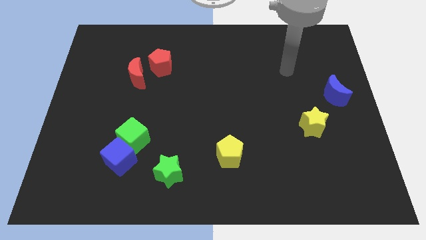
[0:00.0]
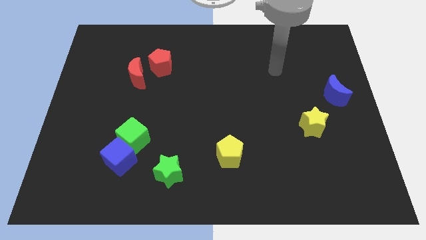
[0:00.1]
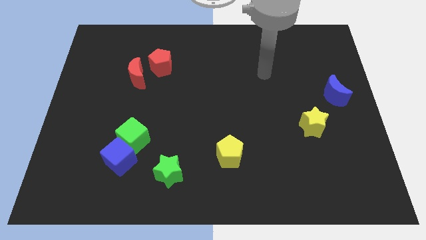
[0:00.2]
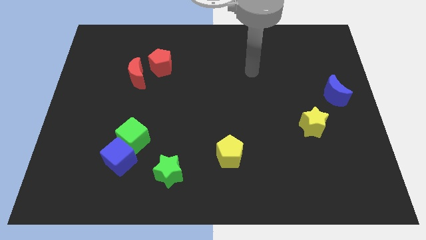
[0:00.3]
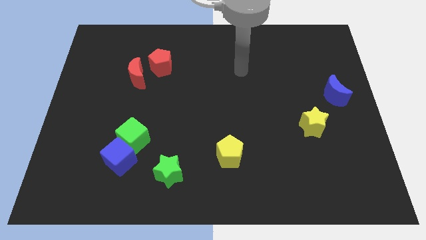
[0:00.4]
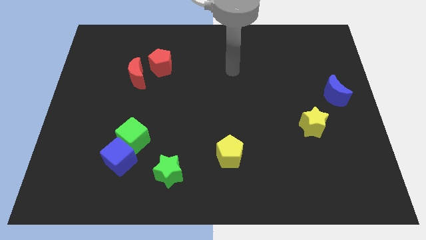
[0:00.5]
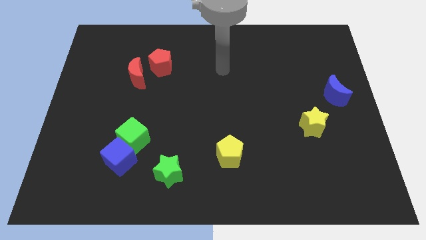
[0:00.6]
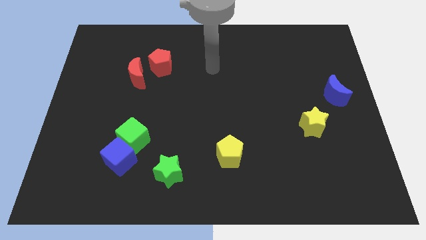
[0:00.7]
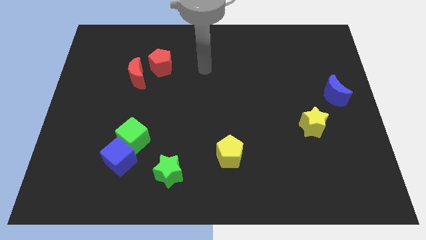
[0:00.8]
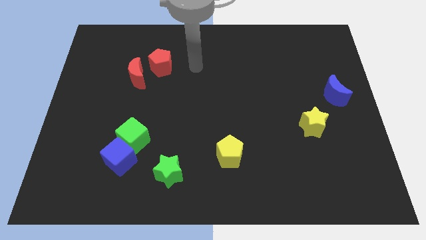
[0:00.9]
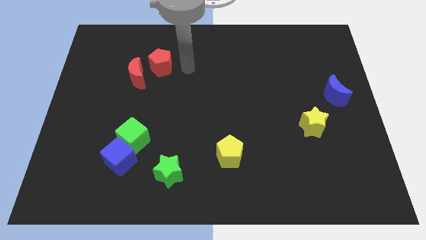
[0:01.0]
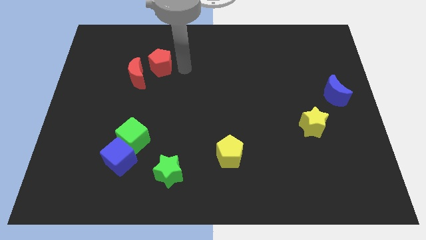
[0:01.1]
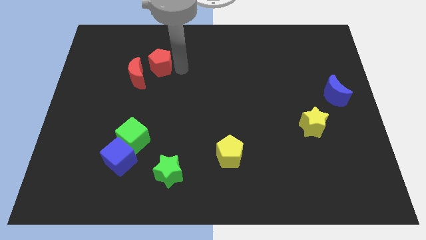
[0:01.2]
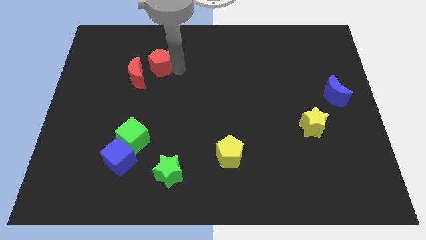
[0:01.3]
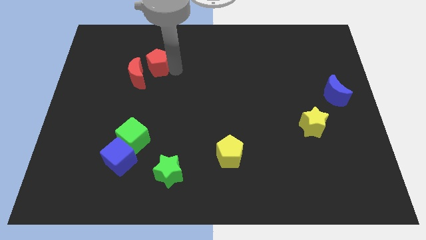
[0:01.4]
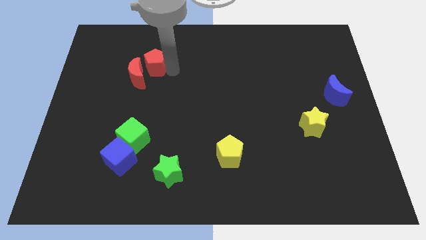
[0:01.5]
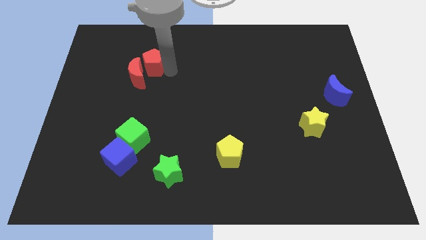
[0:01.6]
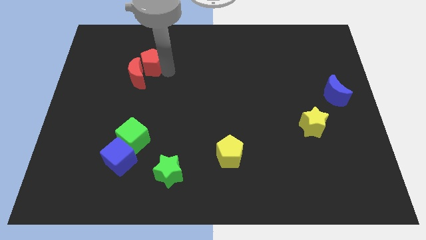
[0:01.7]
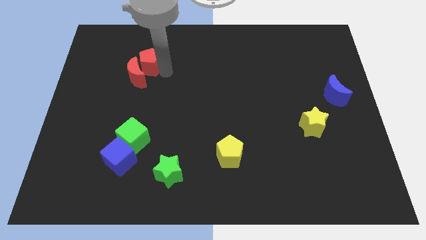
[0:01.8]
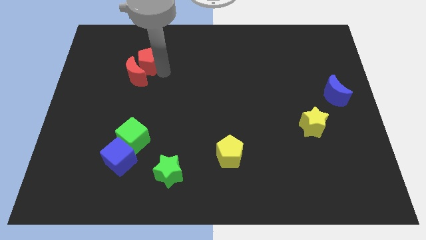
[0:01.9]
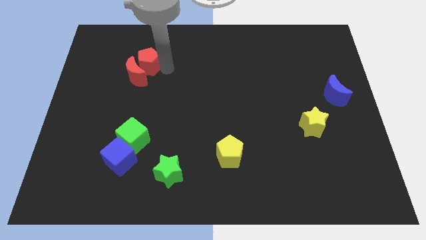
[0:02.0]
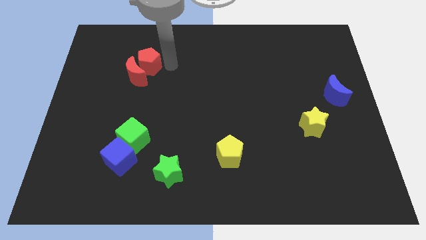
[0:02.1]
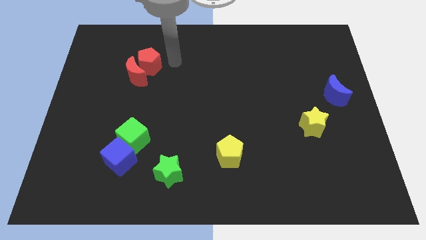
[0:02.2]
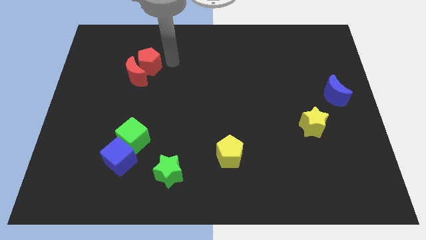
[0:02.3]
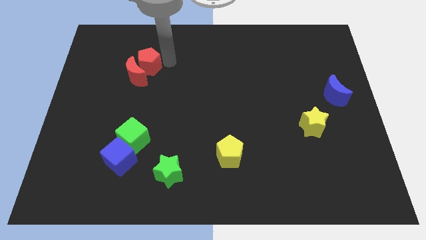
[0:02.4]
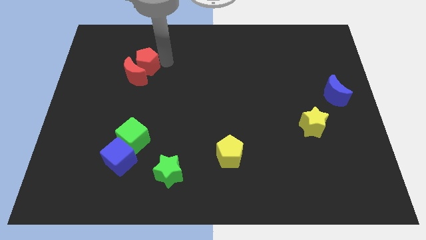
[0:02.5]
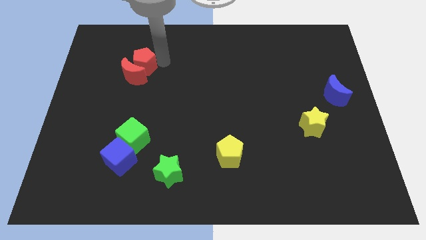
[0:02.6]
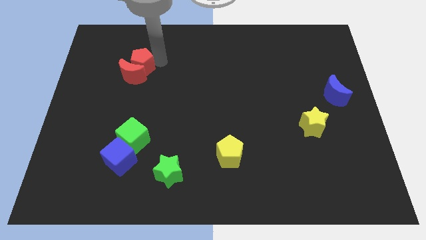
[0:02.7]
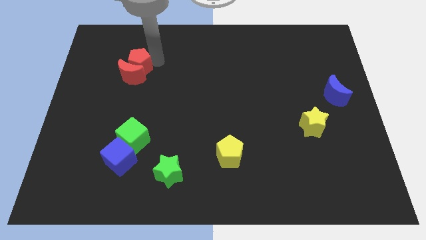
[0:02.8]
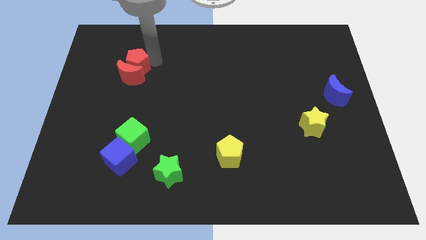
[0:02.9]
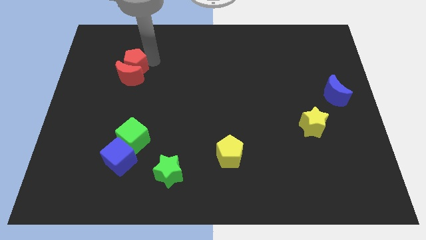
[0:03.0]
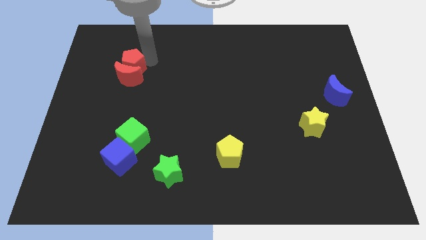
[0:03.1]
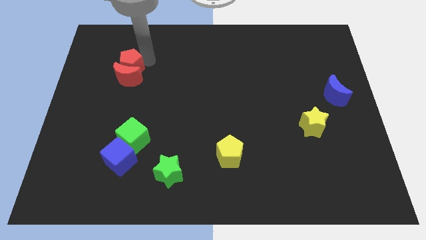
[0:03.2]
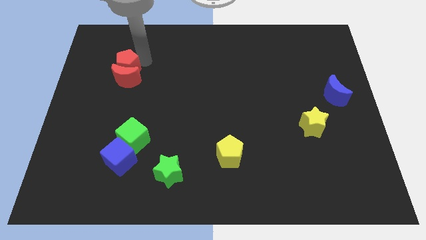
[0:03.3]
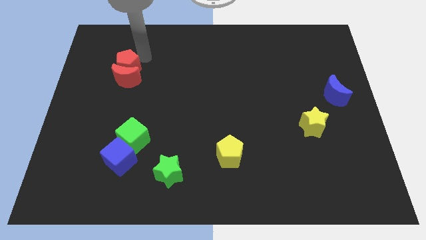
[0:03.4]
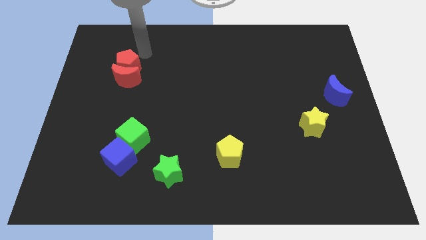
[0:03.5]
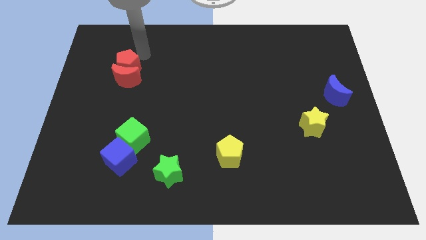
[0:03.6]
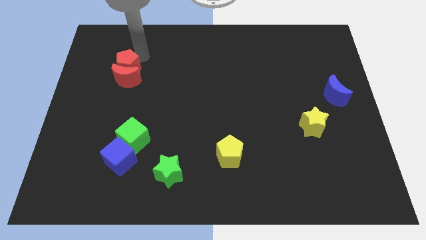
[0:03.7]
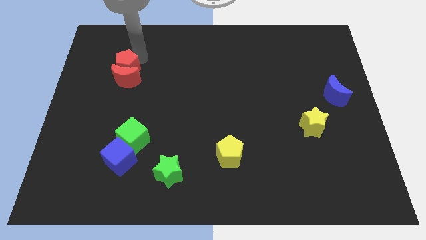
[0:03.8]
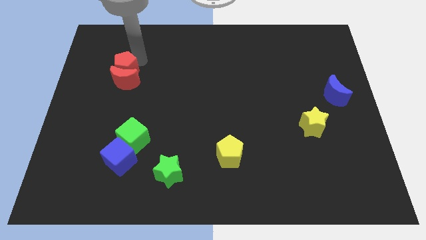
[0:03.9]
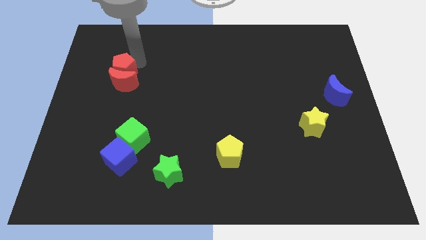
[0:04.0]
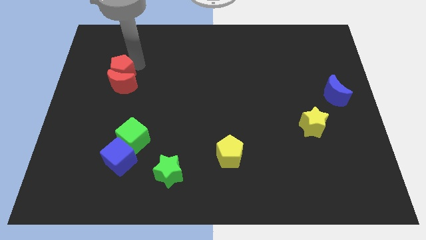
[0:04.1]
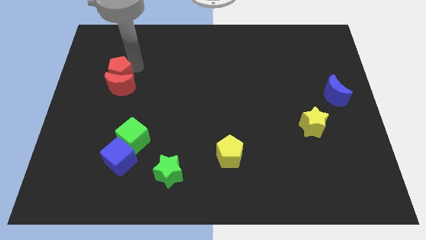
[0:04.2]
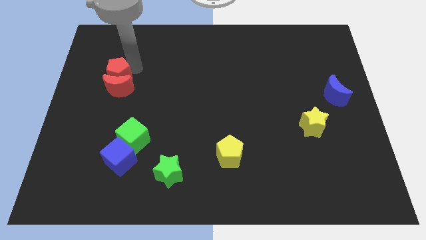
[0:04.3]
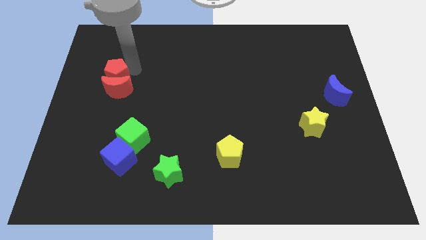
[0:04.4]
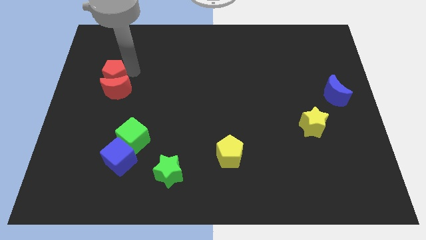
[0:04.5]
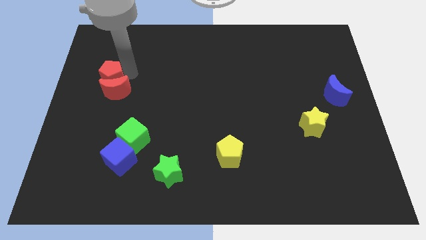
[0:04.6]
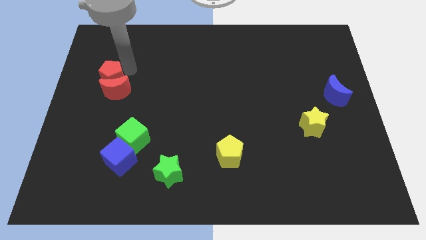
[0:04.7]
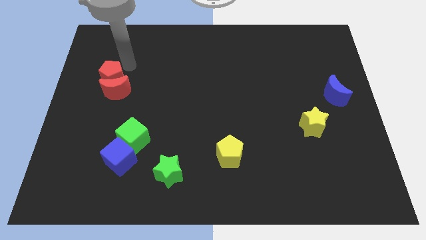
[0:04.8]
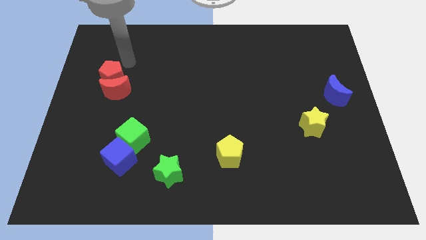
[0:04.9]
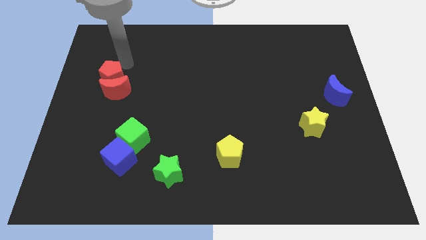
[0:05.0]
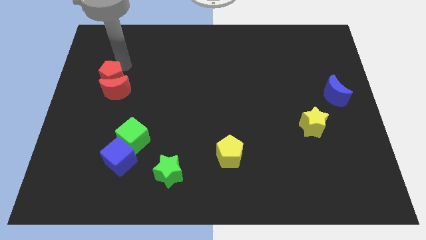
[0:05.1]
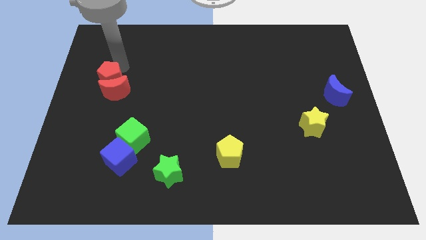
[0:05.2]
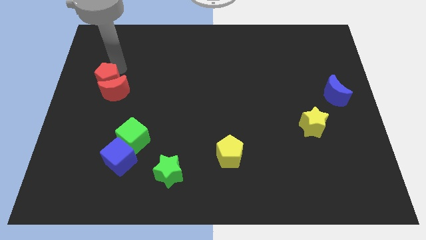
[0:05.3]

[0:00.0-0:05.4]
push the red pentagon to the center left

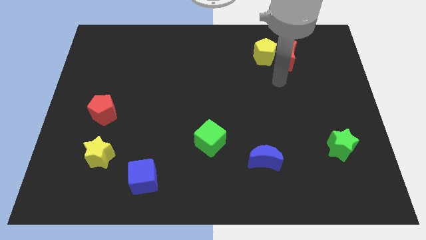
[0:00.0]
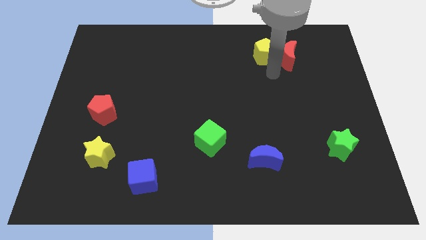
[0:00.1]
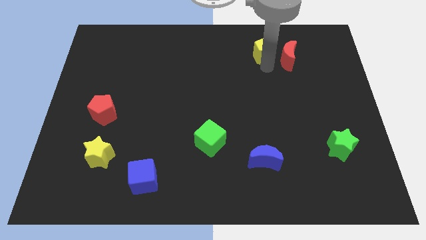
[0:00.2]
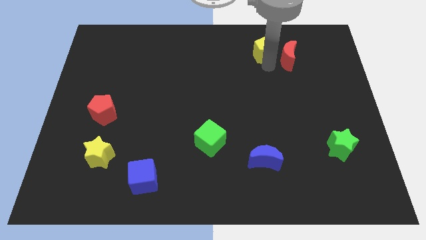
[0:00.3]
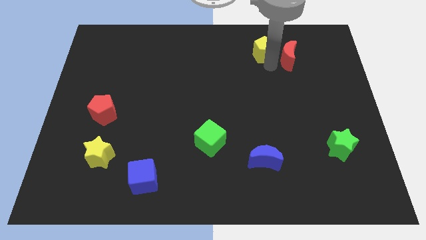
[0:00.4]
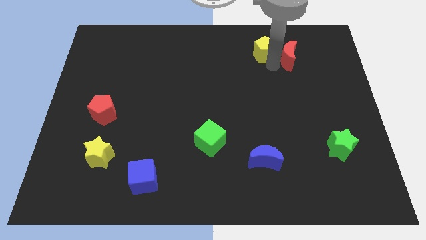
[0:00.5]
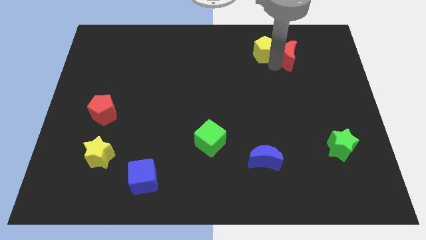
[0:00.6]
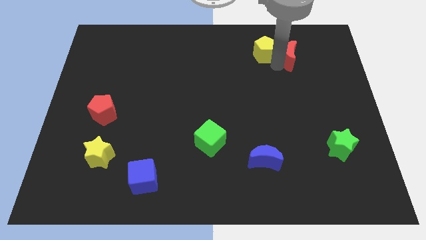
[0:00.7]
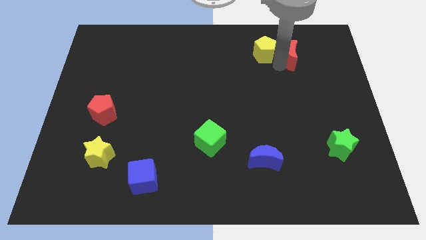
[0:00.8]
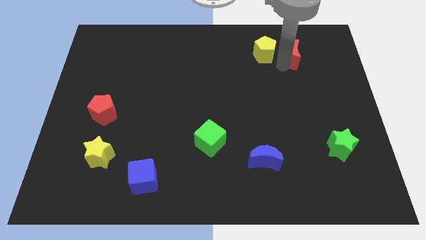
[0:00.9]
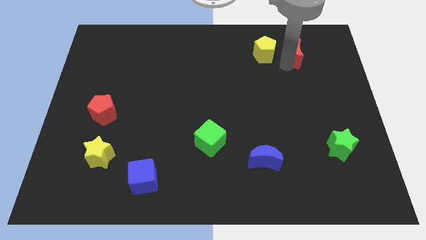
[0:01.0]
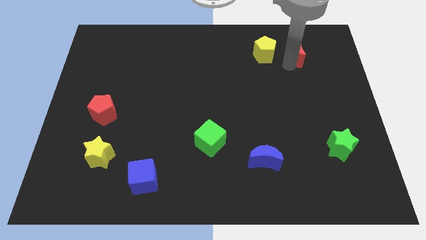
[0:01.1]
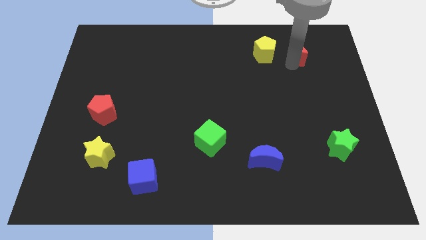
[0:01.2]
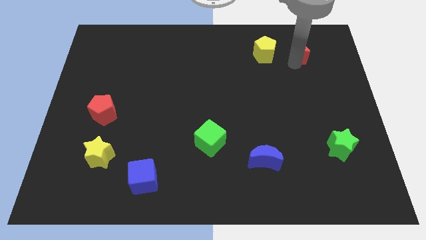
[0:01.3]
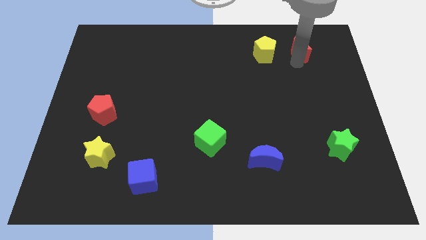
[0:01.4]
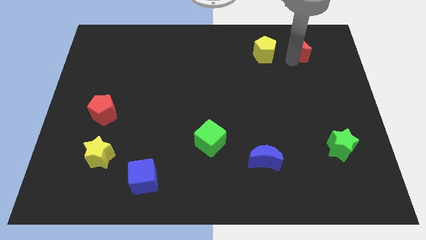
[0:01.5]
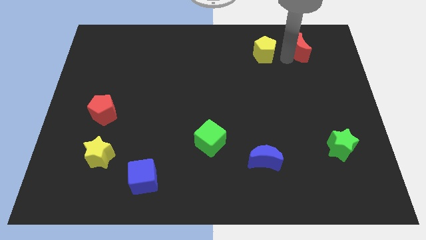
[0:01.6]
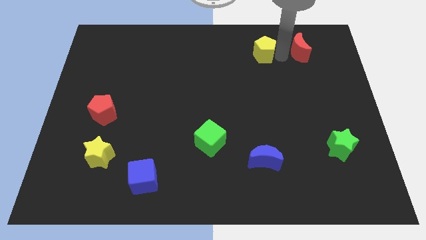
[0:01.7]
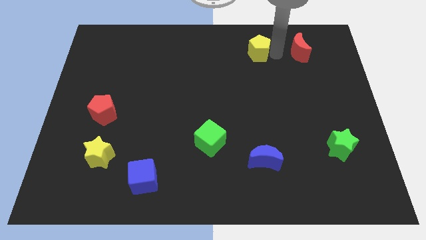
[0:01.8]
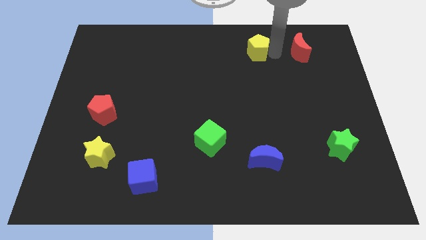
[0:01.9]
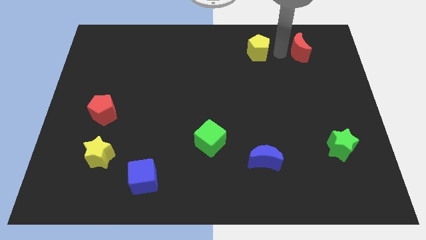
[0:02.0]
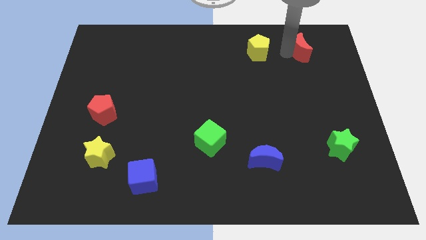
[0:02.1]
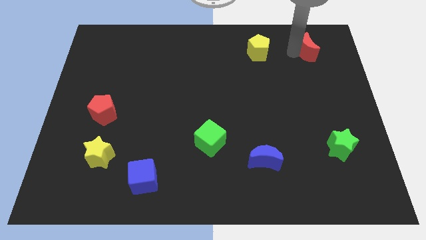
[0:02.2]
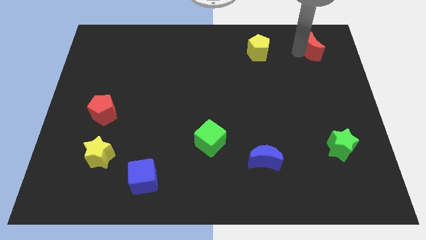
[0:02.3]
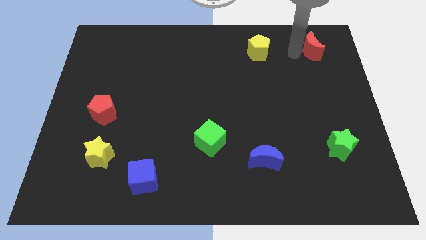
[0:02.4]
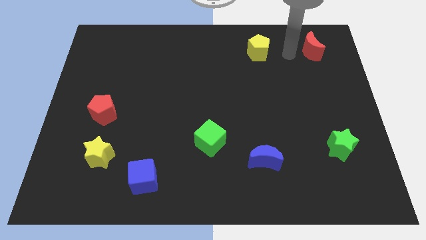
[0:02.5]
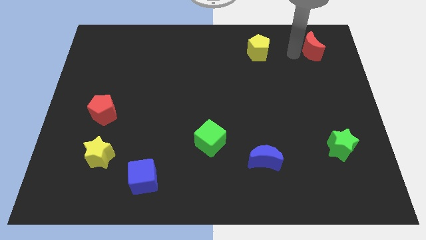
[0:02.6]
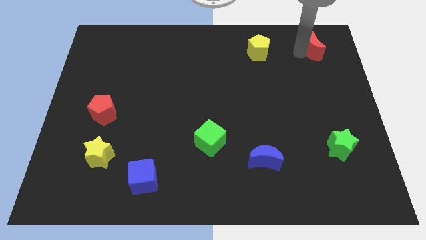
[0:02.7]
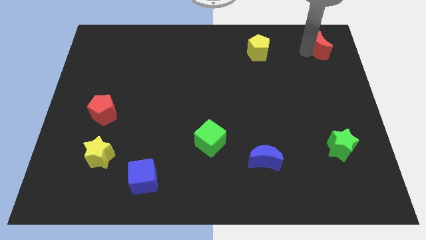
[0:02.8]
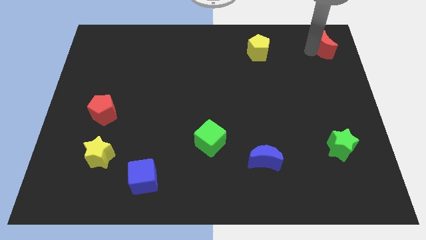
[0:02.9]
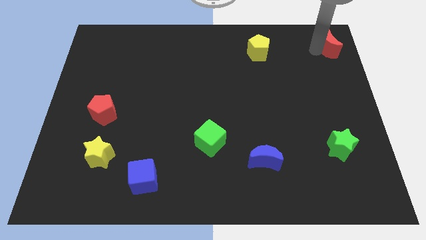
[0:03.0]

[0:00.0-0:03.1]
put the red moon to the top right of the board
